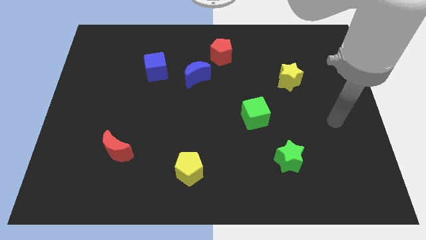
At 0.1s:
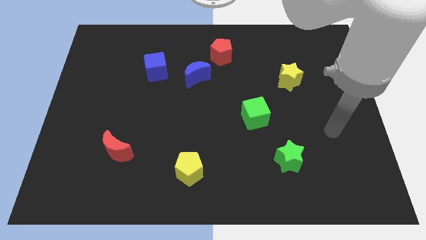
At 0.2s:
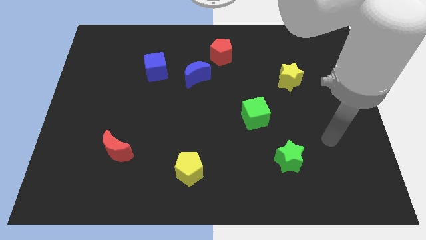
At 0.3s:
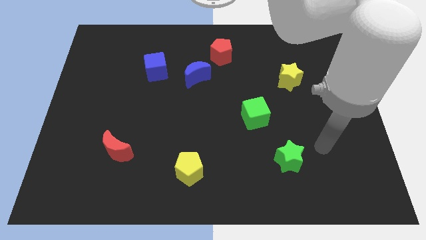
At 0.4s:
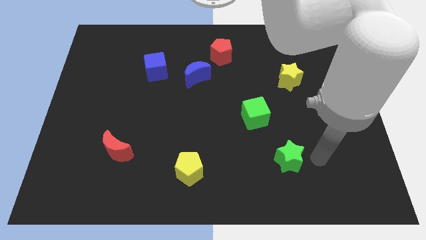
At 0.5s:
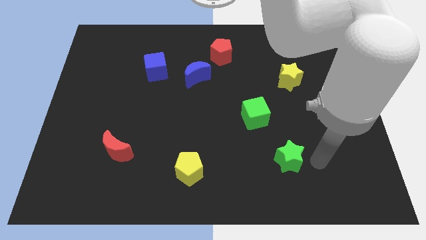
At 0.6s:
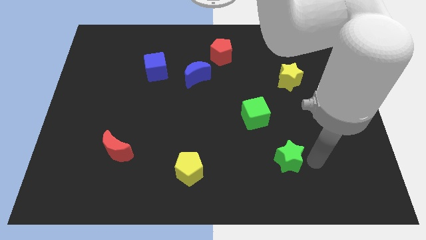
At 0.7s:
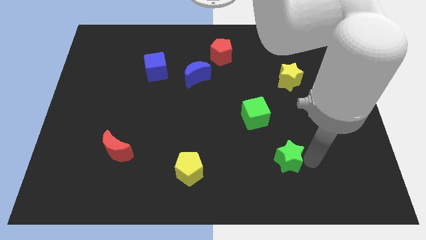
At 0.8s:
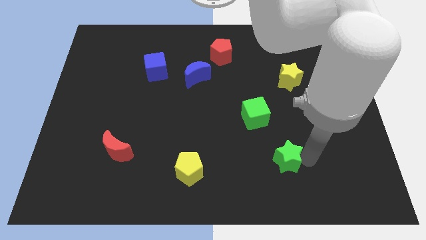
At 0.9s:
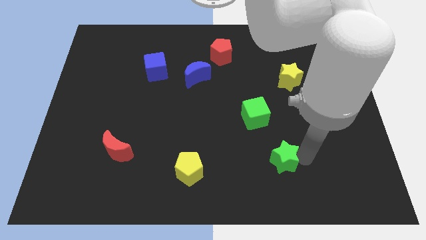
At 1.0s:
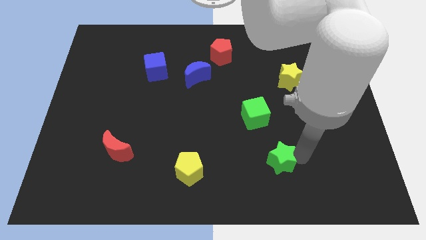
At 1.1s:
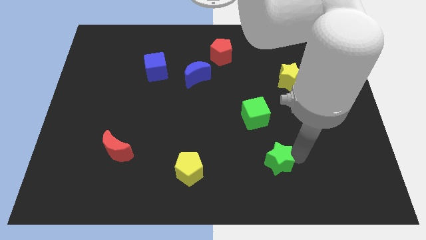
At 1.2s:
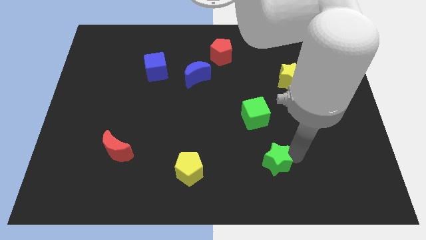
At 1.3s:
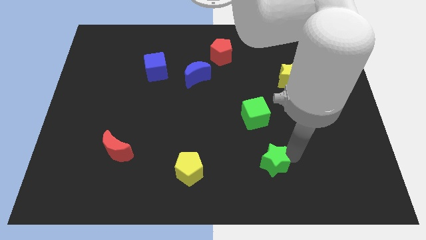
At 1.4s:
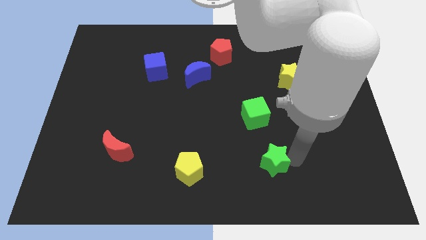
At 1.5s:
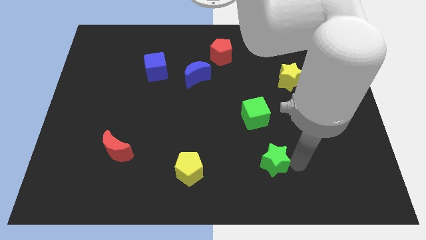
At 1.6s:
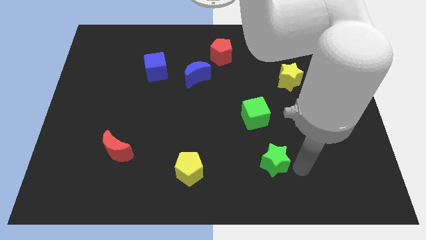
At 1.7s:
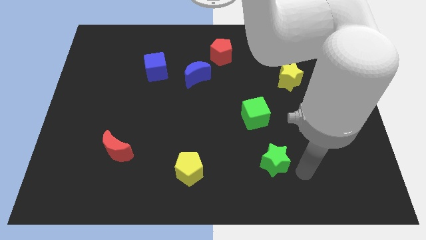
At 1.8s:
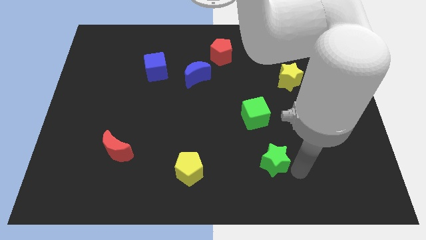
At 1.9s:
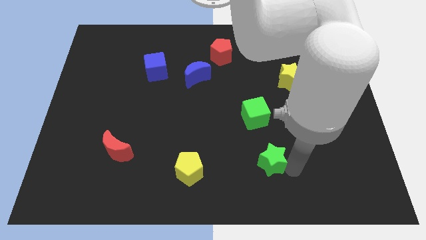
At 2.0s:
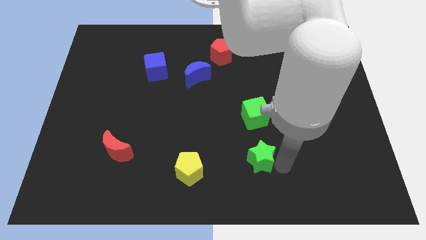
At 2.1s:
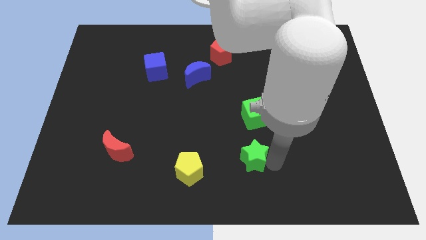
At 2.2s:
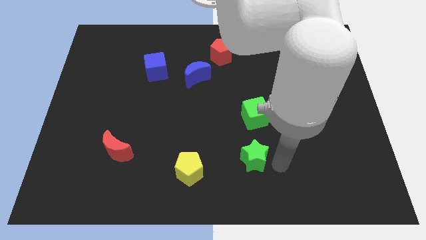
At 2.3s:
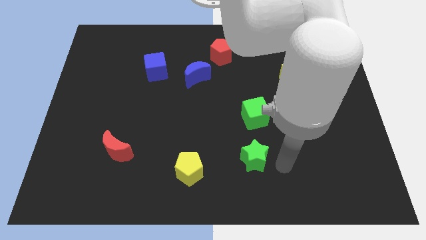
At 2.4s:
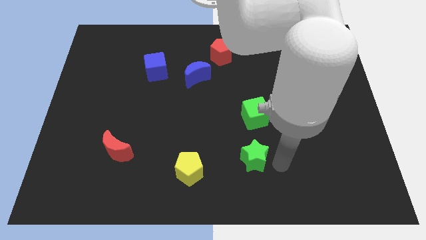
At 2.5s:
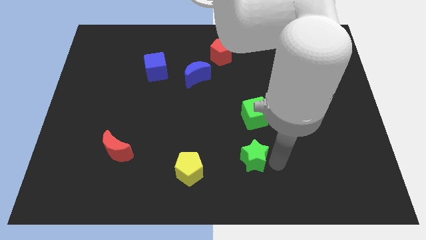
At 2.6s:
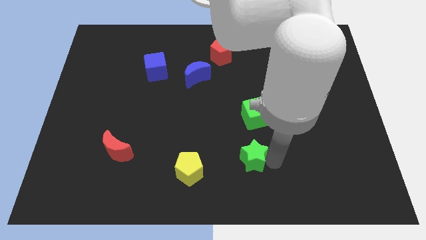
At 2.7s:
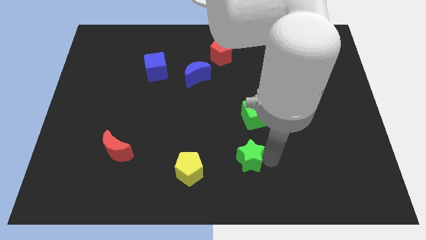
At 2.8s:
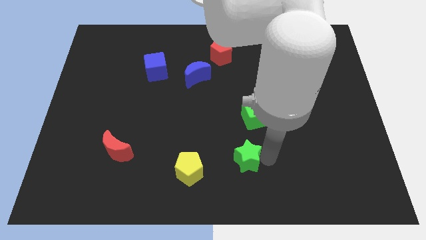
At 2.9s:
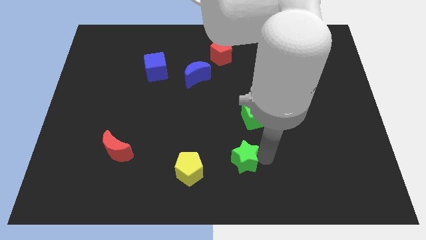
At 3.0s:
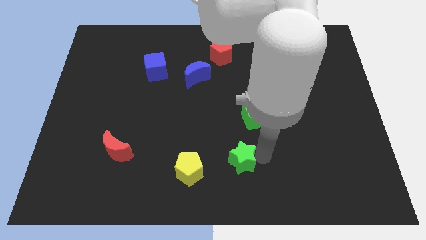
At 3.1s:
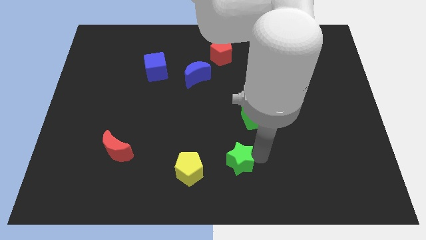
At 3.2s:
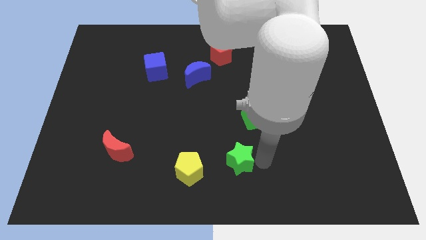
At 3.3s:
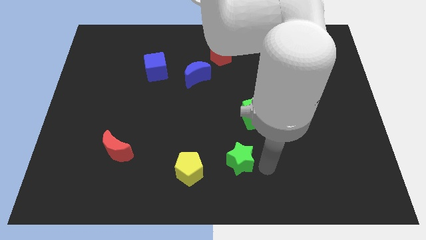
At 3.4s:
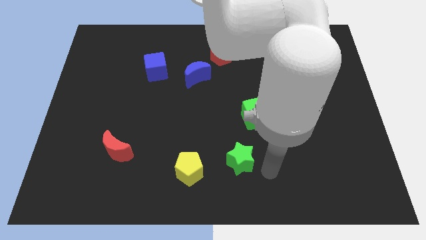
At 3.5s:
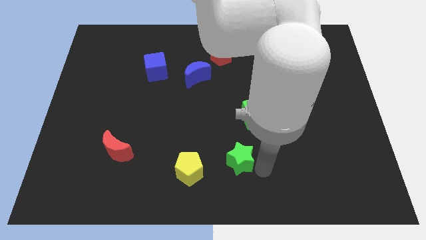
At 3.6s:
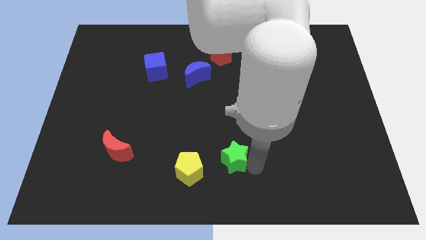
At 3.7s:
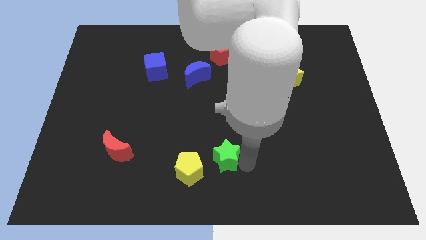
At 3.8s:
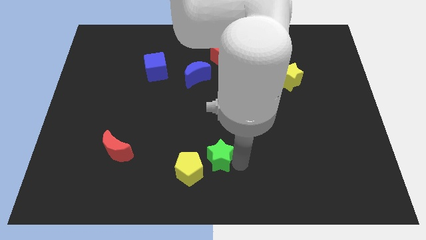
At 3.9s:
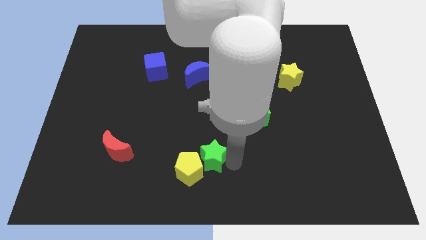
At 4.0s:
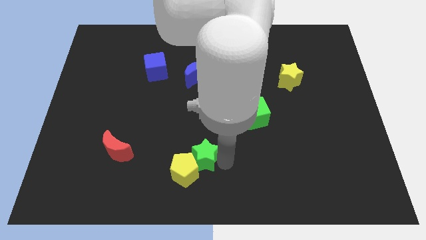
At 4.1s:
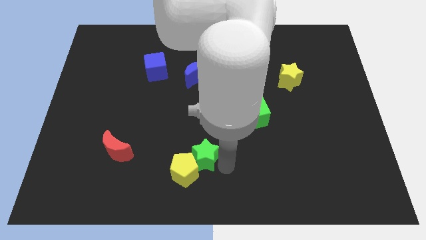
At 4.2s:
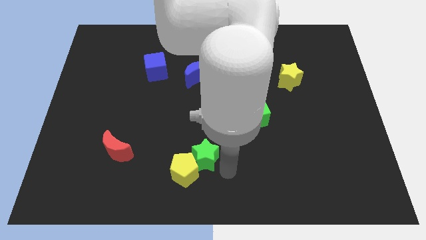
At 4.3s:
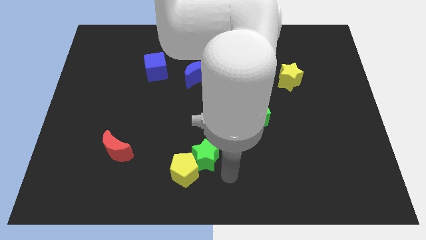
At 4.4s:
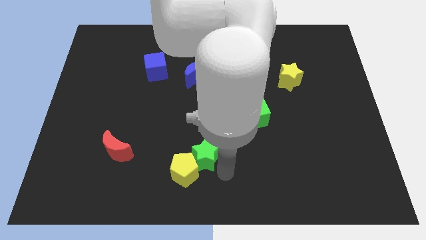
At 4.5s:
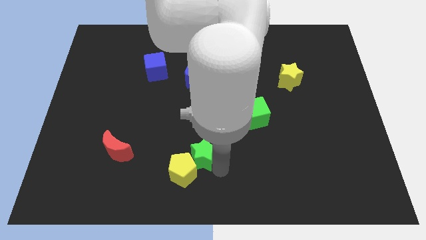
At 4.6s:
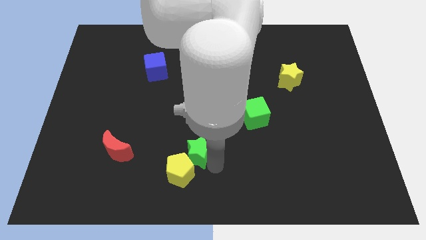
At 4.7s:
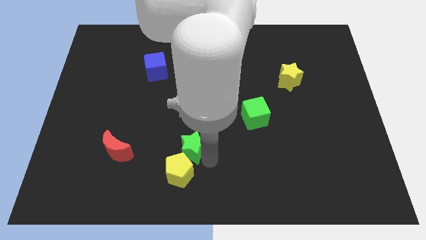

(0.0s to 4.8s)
slide the green star just right of the red moon

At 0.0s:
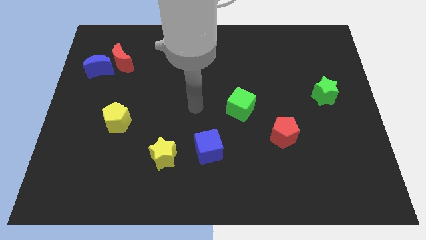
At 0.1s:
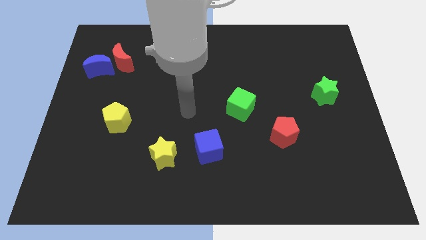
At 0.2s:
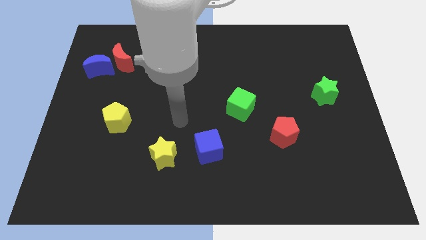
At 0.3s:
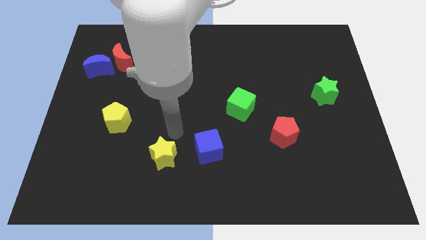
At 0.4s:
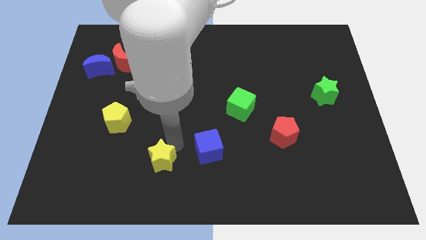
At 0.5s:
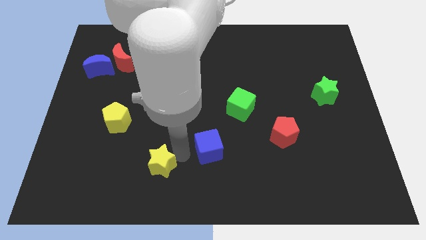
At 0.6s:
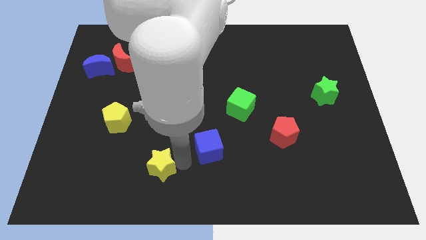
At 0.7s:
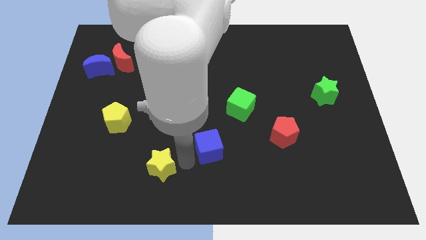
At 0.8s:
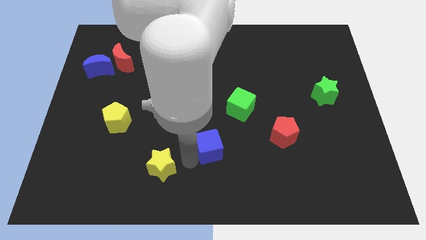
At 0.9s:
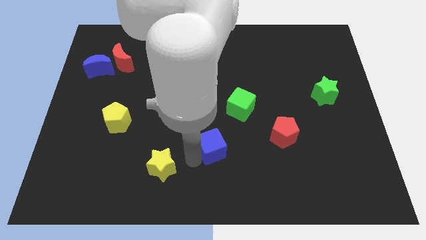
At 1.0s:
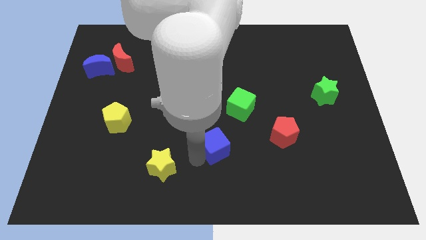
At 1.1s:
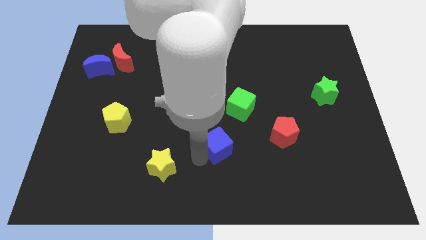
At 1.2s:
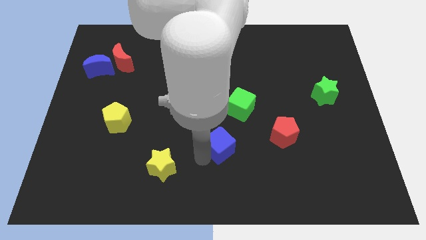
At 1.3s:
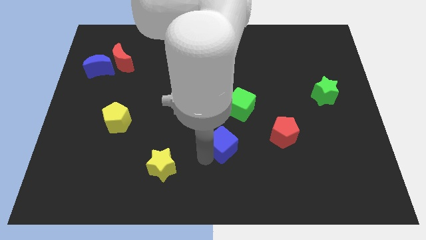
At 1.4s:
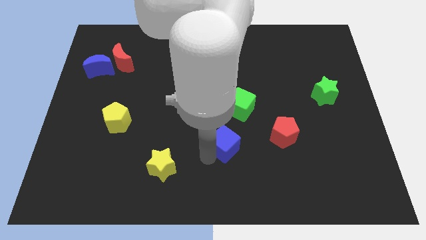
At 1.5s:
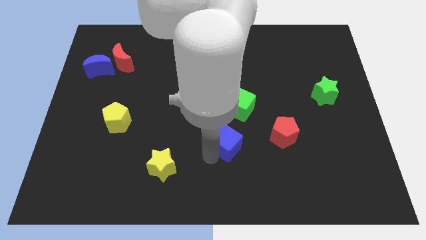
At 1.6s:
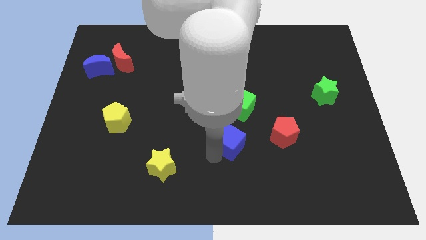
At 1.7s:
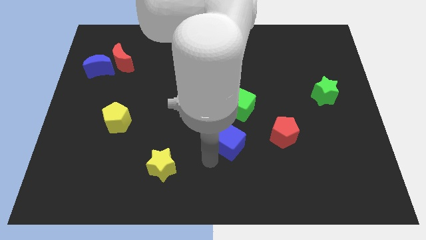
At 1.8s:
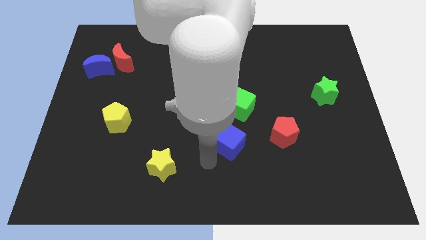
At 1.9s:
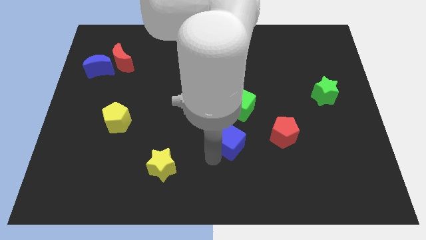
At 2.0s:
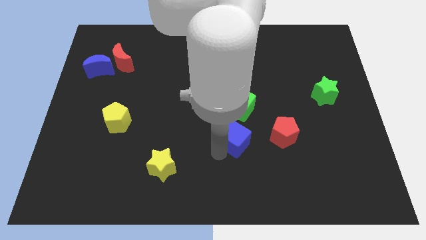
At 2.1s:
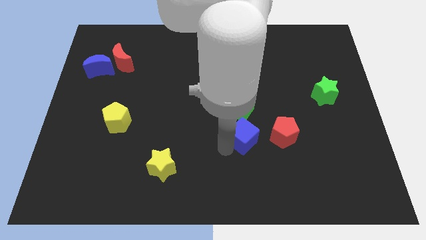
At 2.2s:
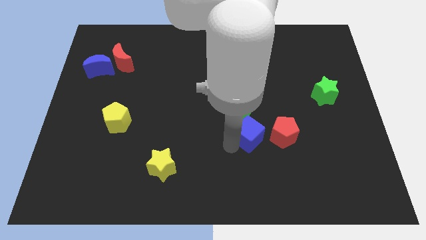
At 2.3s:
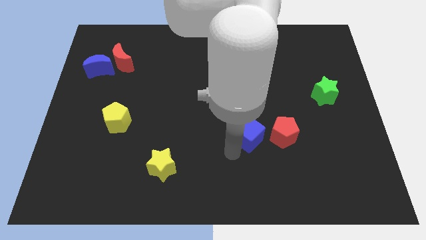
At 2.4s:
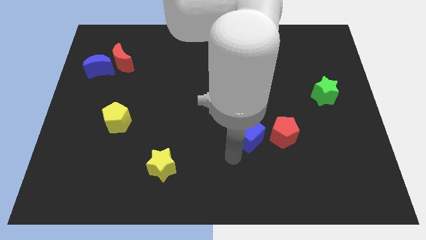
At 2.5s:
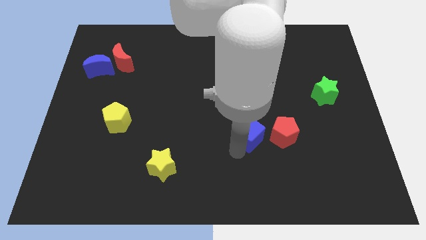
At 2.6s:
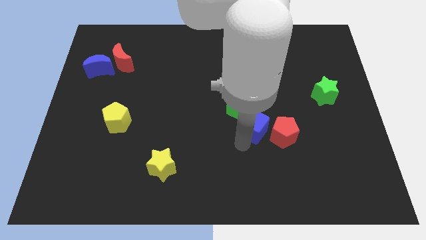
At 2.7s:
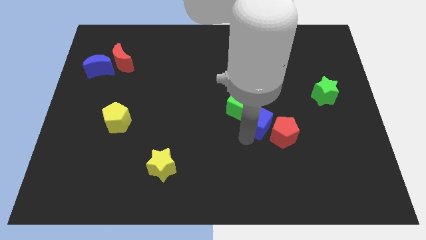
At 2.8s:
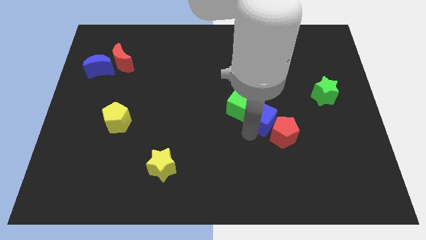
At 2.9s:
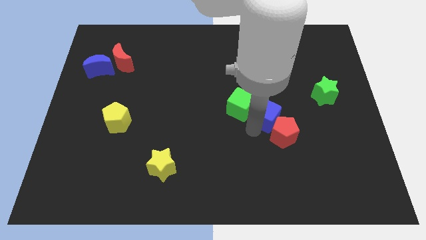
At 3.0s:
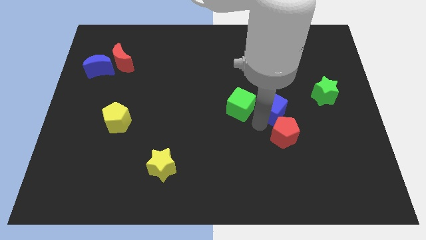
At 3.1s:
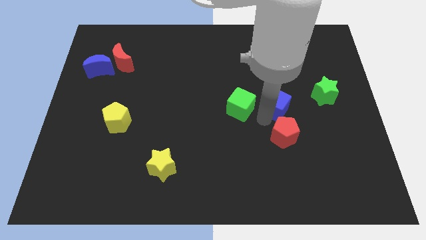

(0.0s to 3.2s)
slide the blue cube left of the green star
